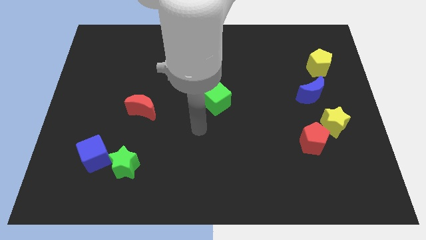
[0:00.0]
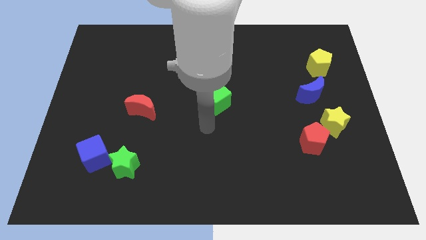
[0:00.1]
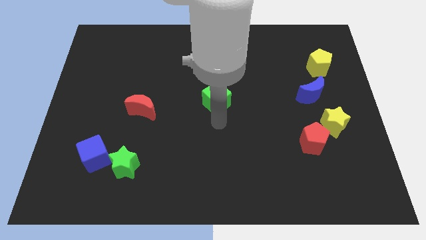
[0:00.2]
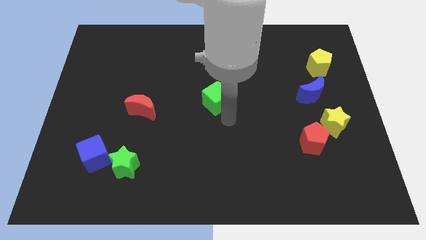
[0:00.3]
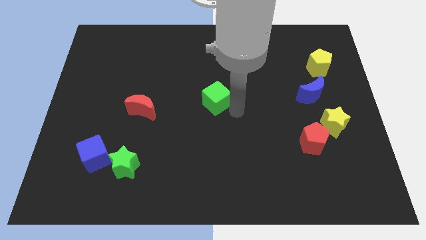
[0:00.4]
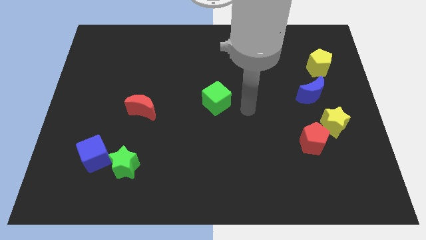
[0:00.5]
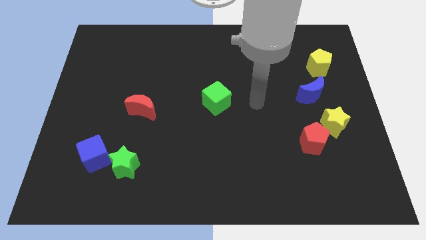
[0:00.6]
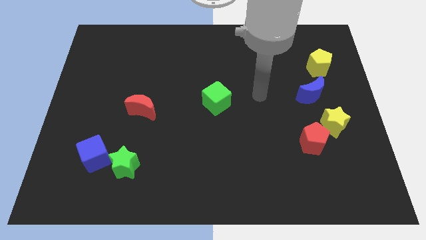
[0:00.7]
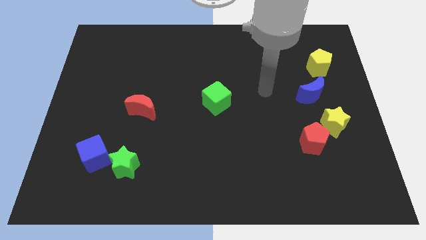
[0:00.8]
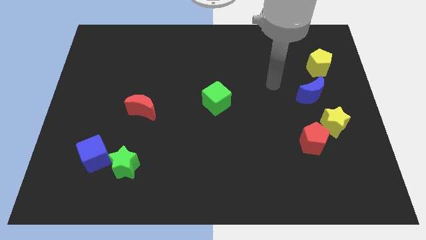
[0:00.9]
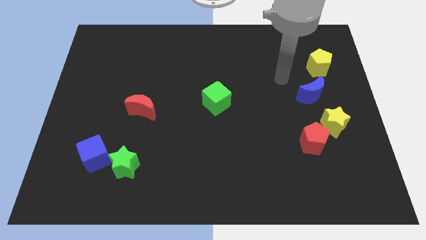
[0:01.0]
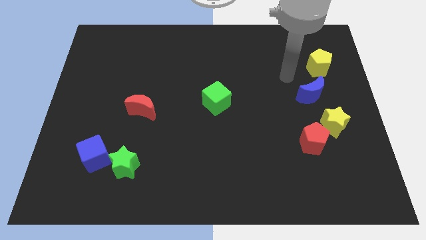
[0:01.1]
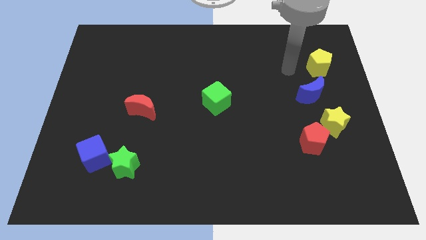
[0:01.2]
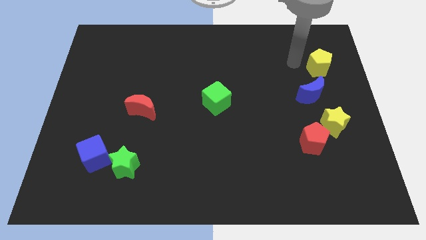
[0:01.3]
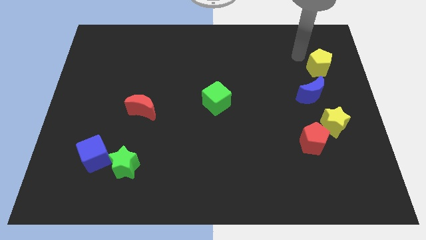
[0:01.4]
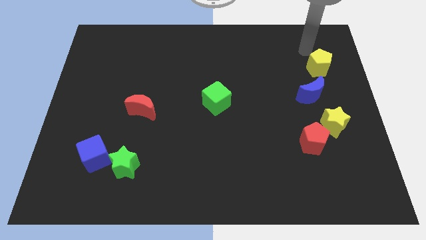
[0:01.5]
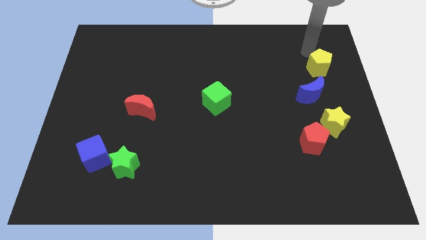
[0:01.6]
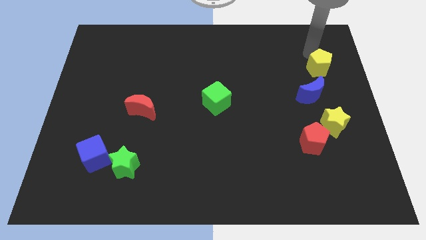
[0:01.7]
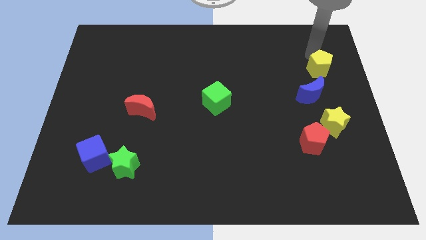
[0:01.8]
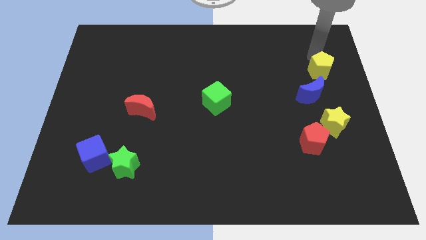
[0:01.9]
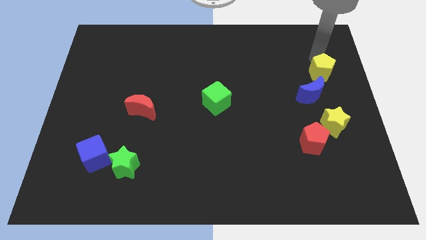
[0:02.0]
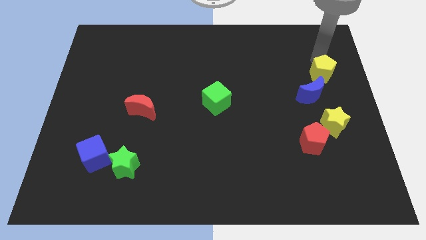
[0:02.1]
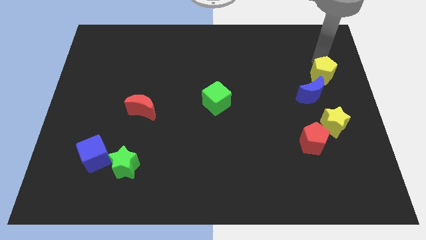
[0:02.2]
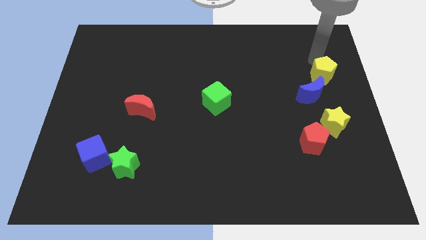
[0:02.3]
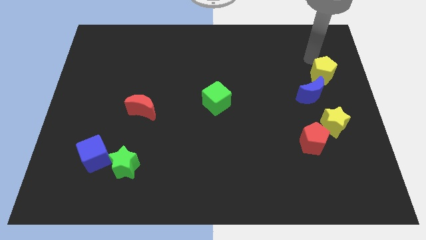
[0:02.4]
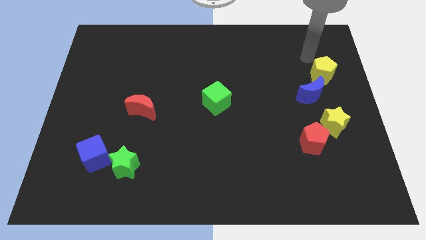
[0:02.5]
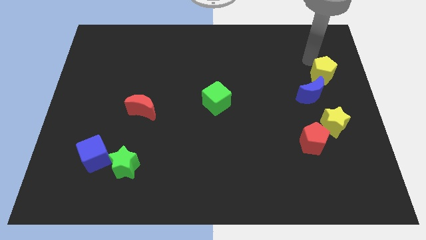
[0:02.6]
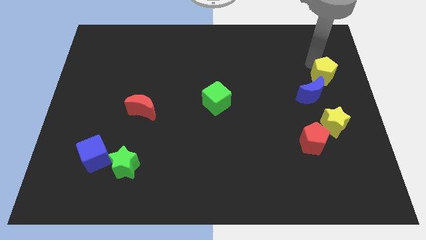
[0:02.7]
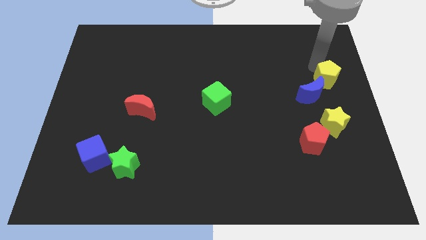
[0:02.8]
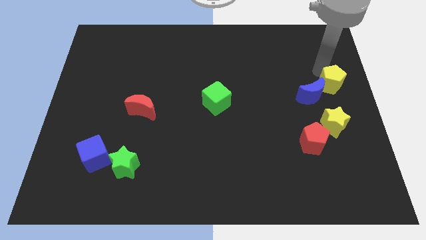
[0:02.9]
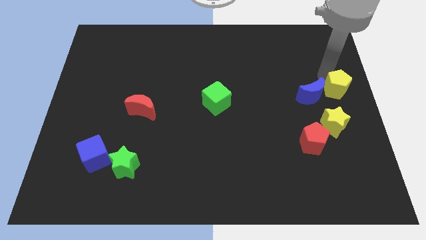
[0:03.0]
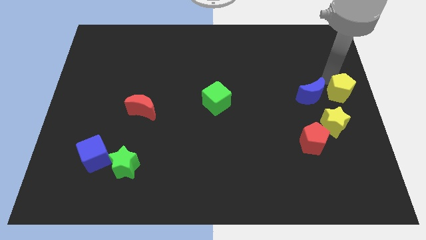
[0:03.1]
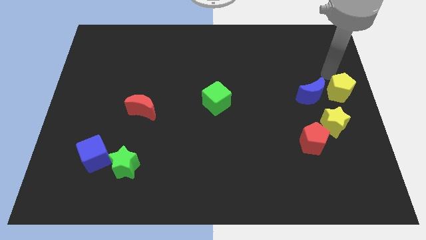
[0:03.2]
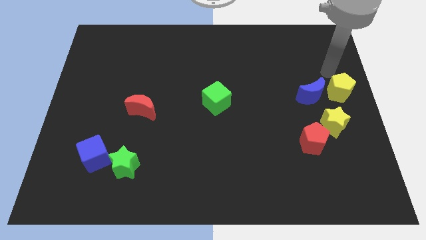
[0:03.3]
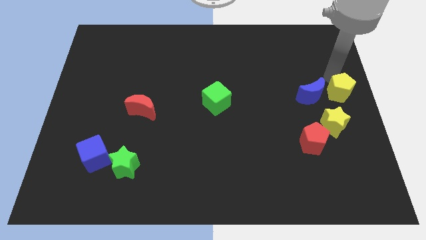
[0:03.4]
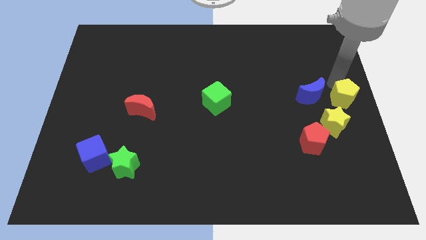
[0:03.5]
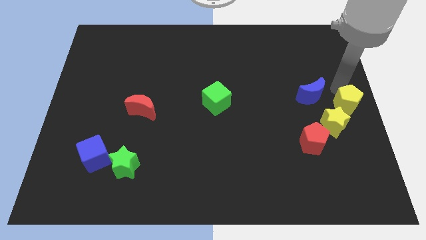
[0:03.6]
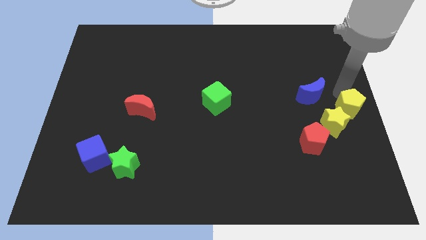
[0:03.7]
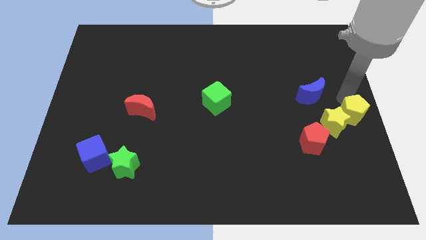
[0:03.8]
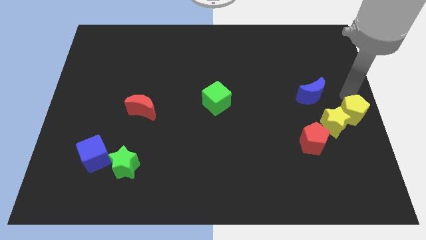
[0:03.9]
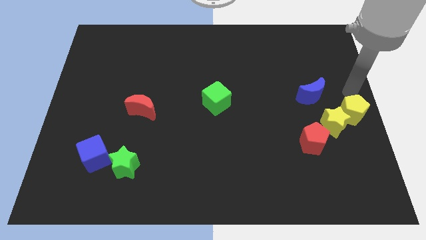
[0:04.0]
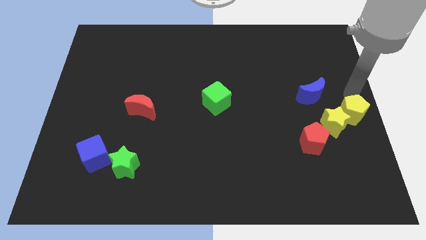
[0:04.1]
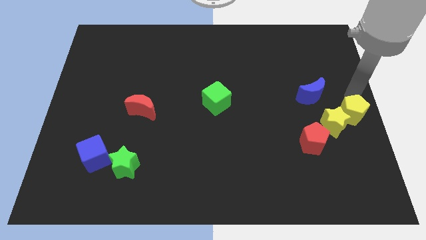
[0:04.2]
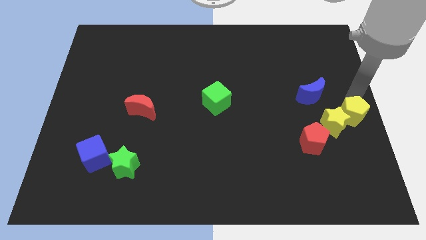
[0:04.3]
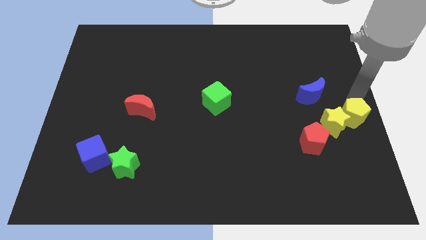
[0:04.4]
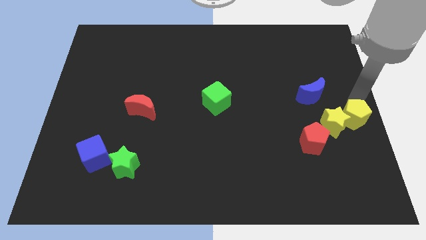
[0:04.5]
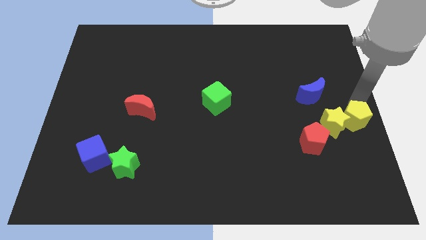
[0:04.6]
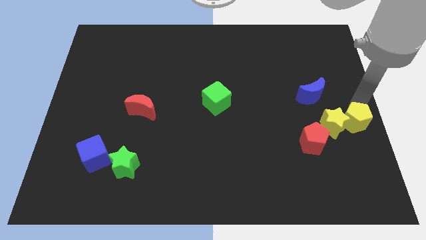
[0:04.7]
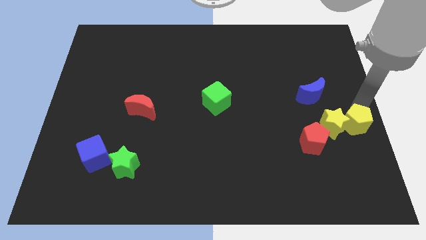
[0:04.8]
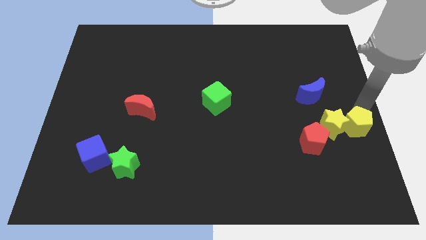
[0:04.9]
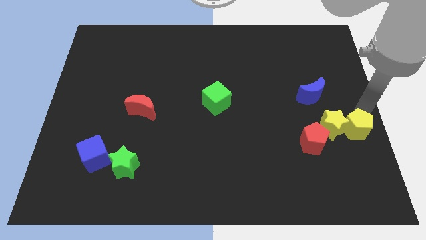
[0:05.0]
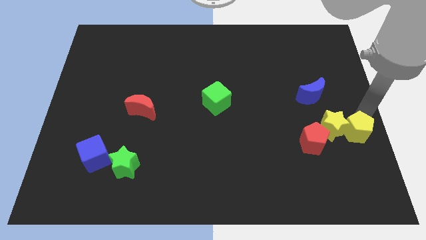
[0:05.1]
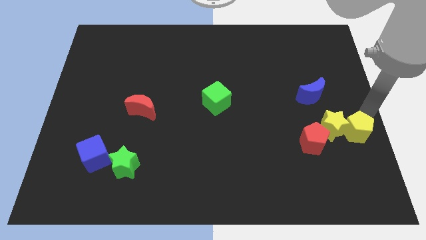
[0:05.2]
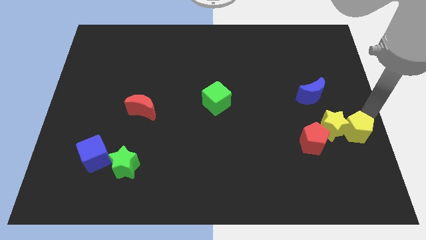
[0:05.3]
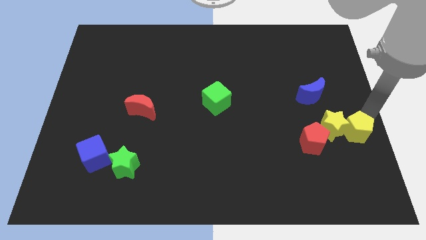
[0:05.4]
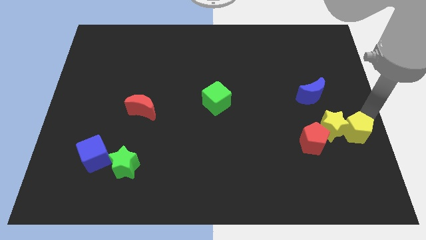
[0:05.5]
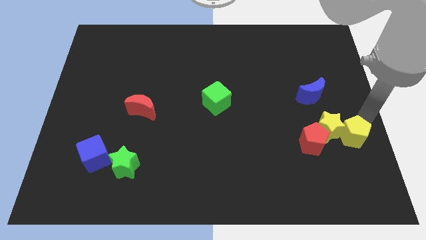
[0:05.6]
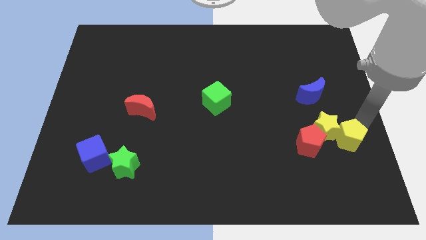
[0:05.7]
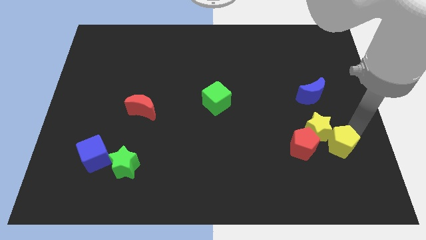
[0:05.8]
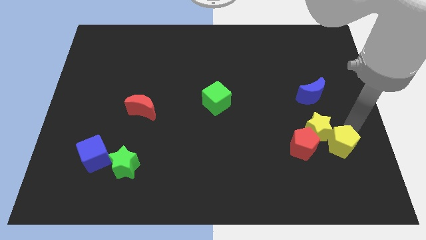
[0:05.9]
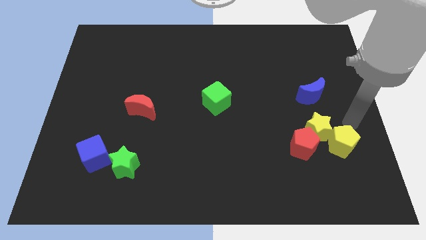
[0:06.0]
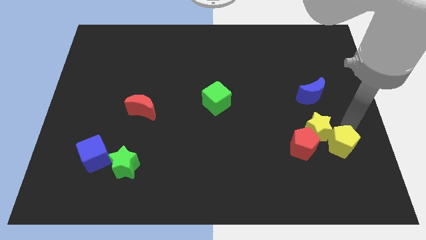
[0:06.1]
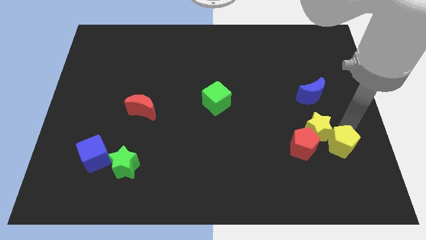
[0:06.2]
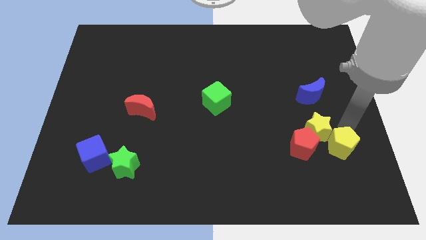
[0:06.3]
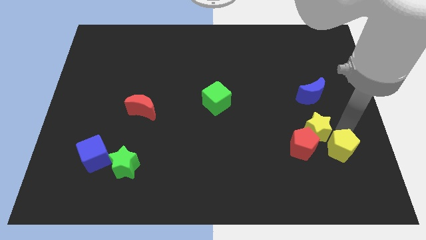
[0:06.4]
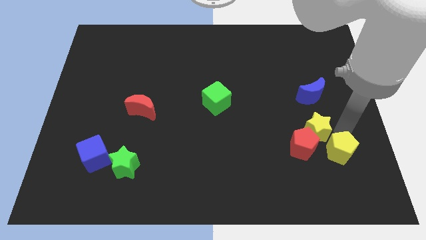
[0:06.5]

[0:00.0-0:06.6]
move the yellow pentagon to the bottom right of the red pentagon

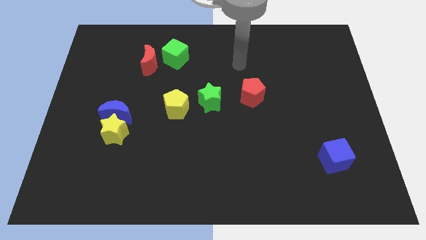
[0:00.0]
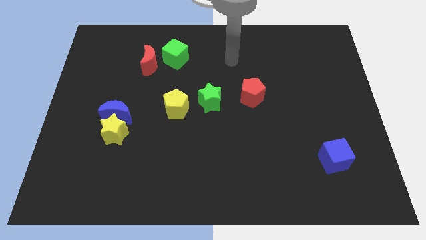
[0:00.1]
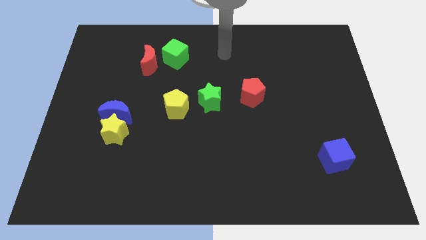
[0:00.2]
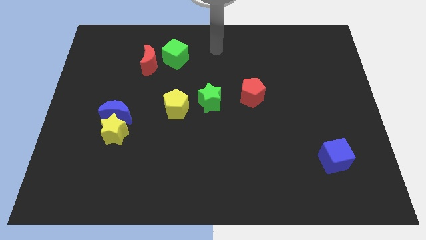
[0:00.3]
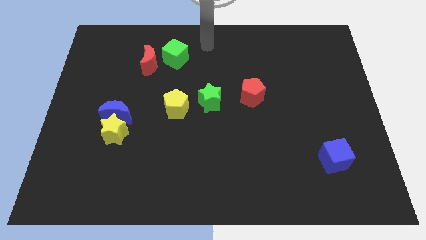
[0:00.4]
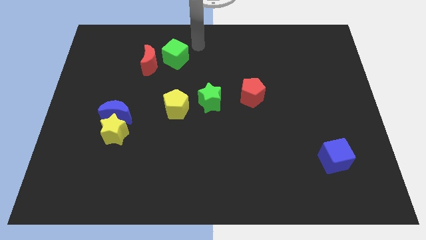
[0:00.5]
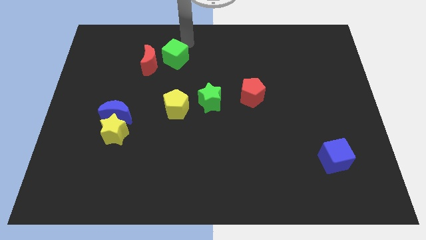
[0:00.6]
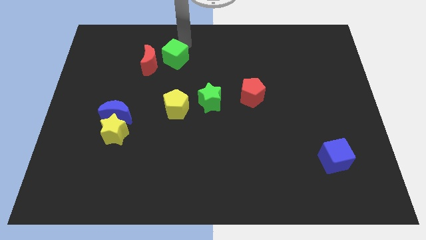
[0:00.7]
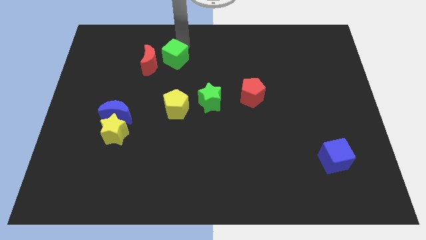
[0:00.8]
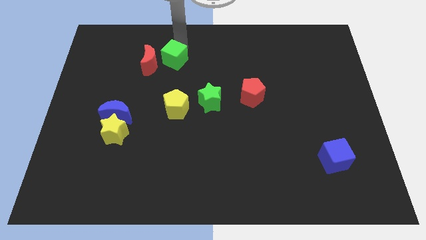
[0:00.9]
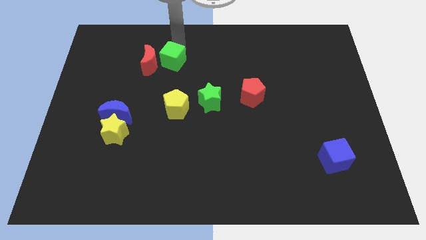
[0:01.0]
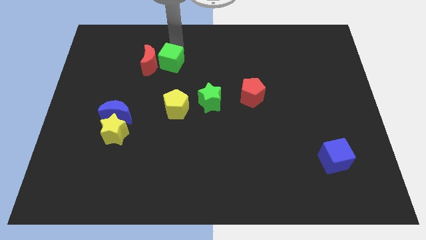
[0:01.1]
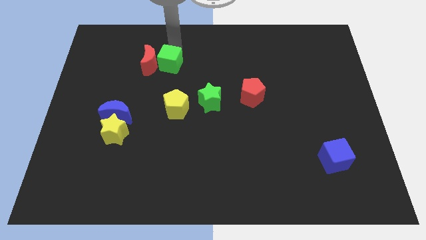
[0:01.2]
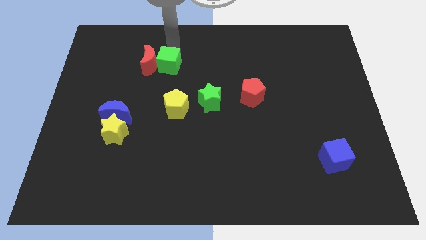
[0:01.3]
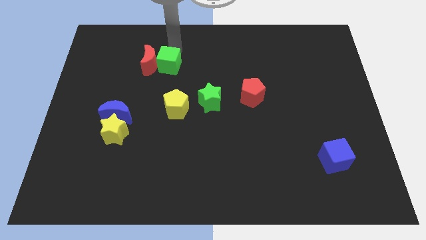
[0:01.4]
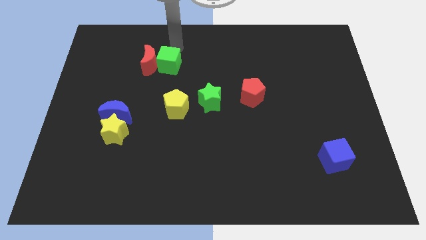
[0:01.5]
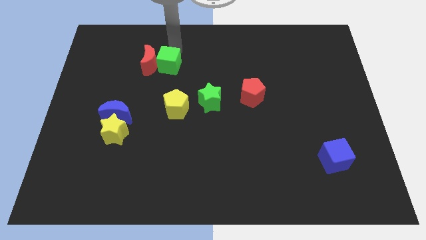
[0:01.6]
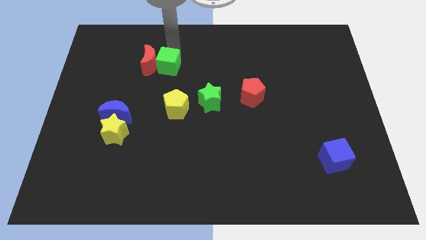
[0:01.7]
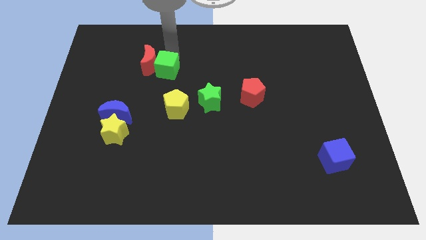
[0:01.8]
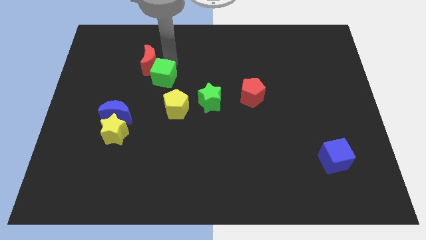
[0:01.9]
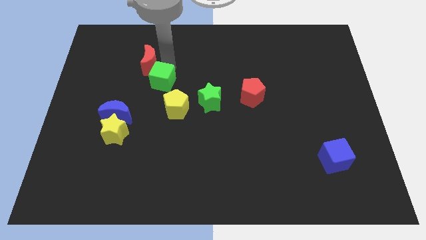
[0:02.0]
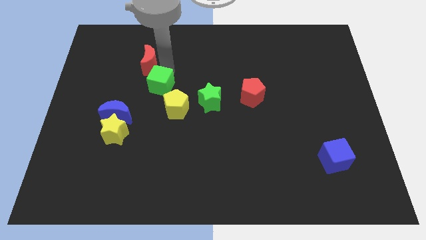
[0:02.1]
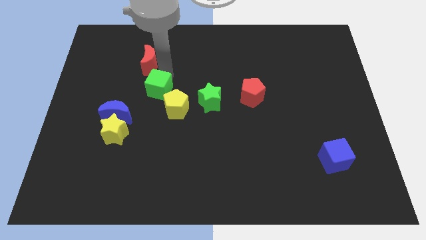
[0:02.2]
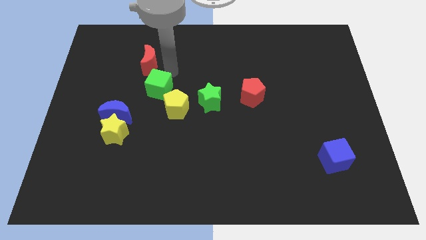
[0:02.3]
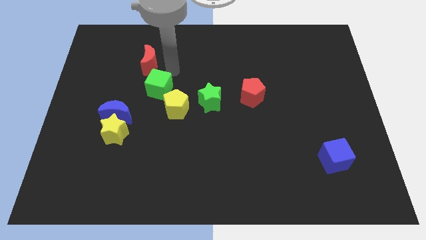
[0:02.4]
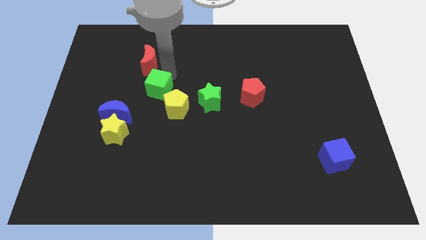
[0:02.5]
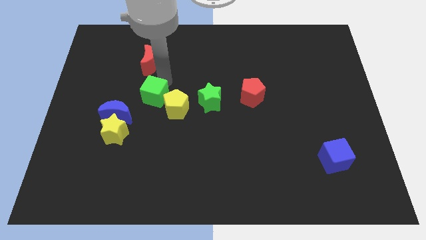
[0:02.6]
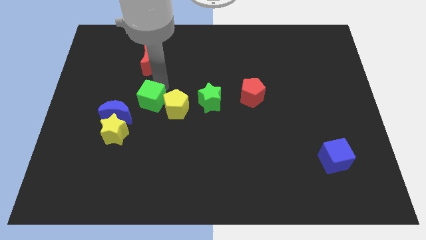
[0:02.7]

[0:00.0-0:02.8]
put the green cube diagonally up and to the right of the yellow star
